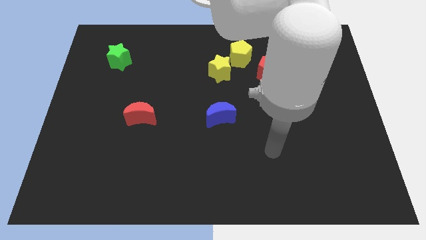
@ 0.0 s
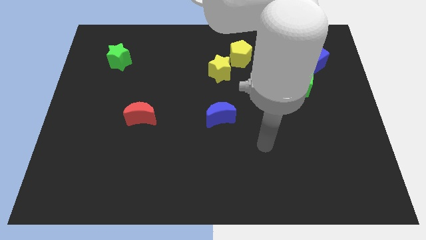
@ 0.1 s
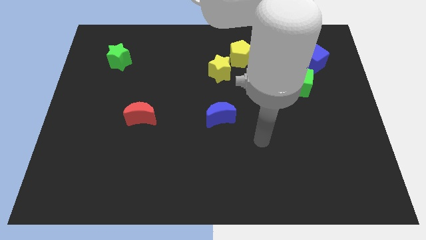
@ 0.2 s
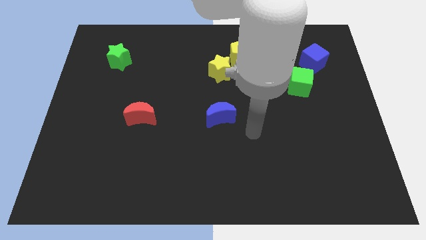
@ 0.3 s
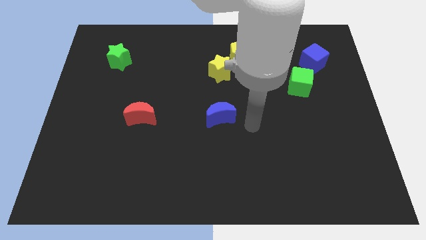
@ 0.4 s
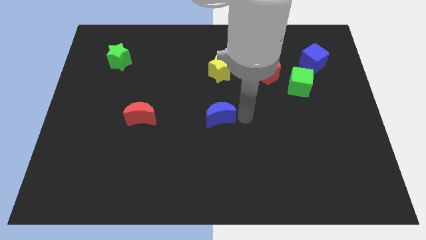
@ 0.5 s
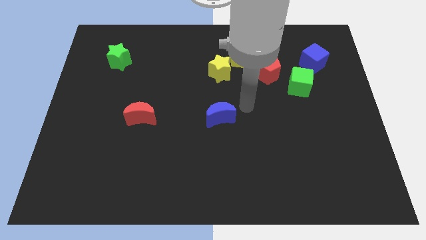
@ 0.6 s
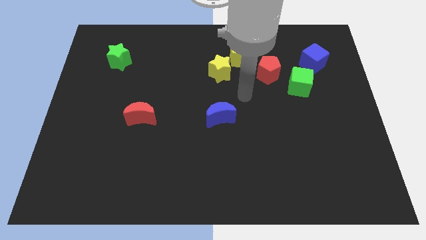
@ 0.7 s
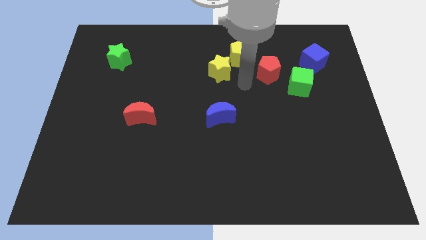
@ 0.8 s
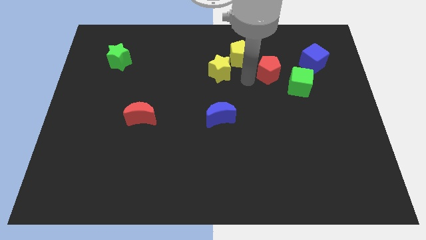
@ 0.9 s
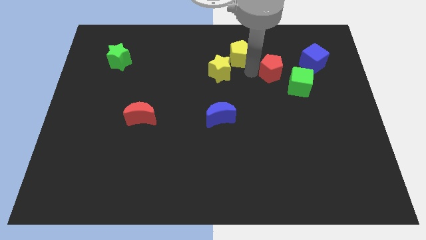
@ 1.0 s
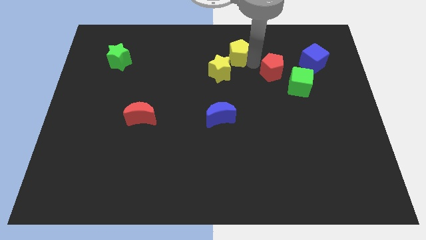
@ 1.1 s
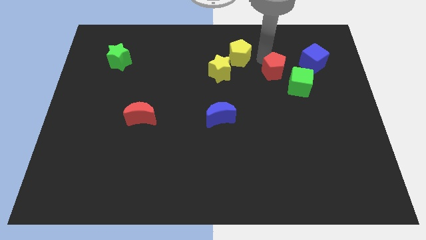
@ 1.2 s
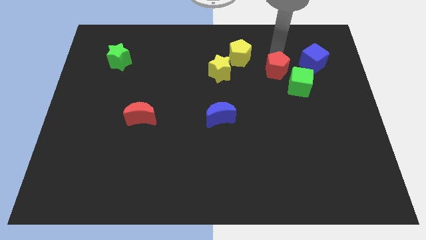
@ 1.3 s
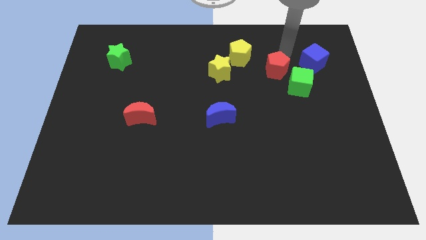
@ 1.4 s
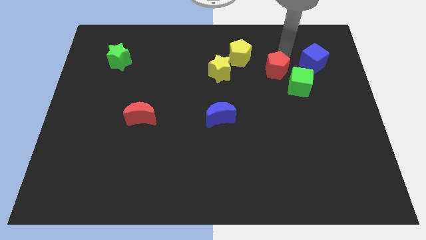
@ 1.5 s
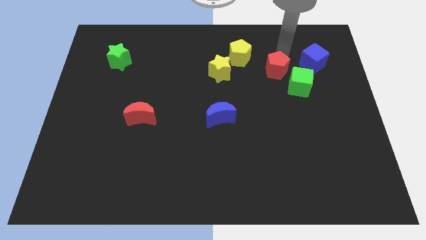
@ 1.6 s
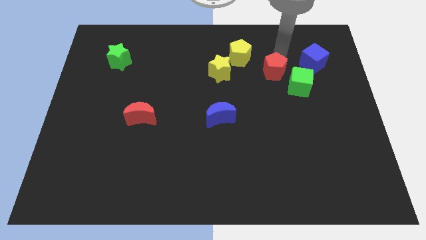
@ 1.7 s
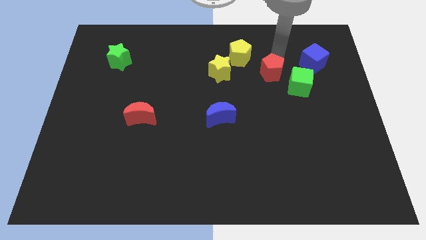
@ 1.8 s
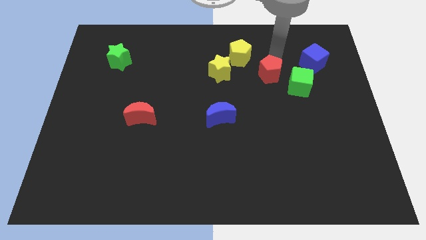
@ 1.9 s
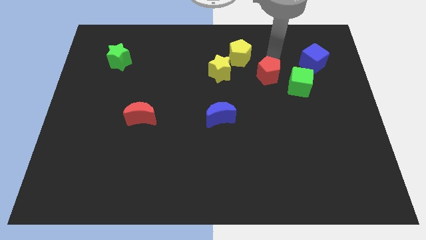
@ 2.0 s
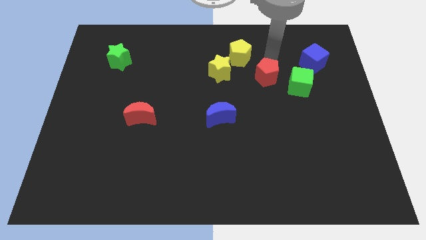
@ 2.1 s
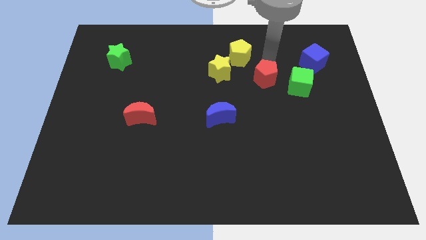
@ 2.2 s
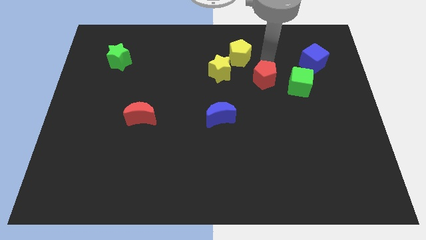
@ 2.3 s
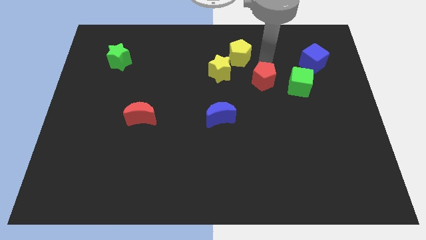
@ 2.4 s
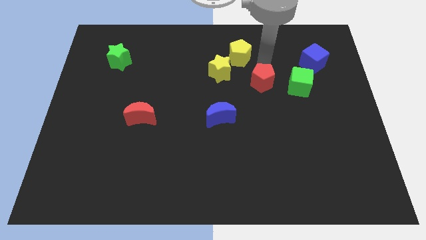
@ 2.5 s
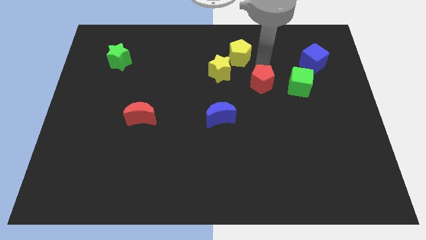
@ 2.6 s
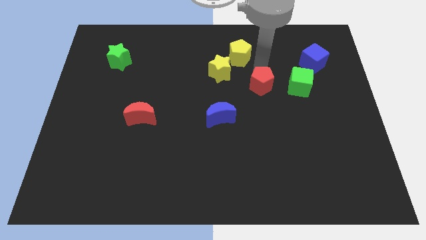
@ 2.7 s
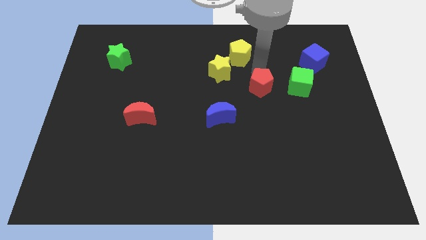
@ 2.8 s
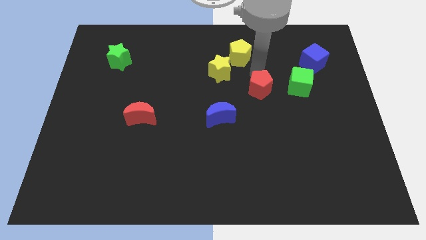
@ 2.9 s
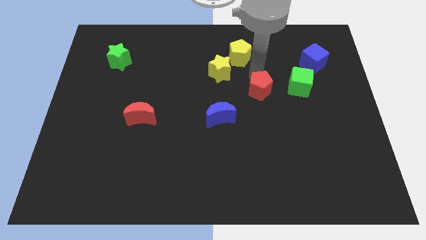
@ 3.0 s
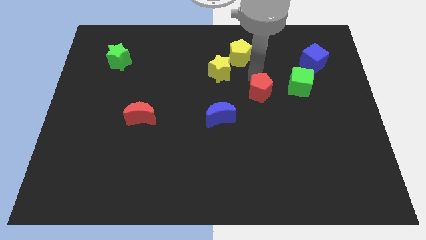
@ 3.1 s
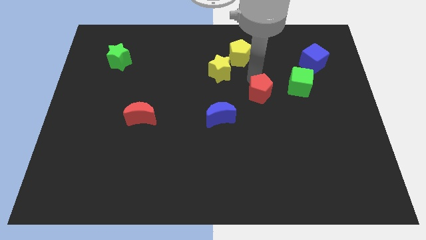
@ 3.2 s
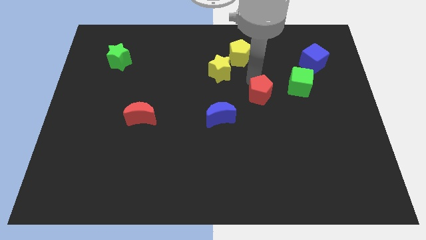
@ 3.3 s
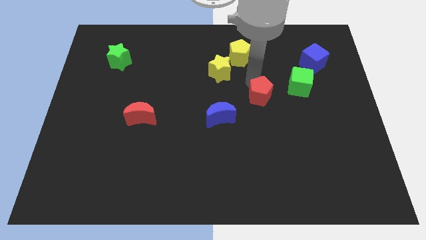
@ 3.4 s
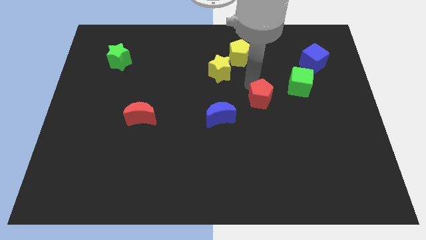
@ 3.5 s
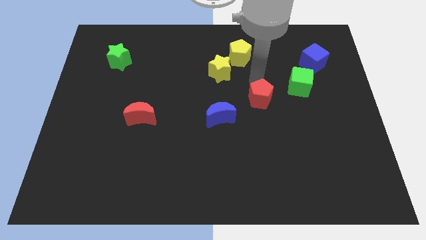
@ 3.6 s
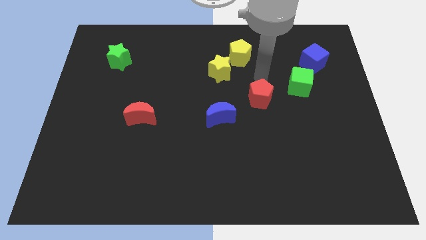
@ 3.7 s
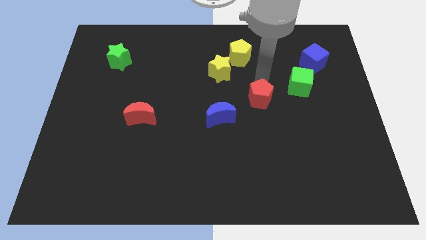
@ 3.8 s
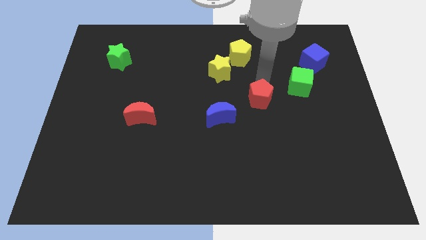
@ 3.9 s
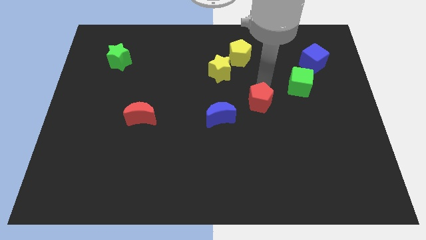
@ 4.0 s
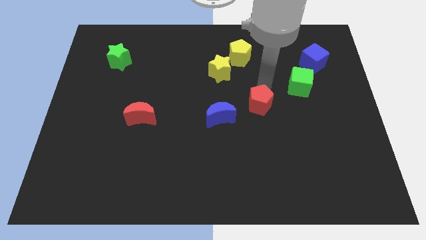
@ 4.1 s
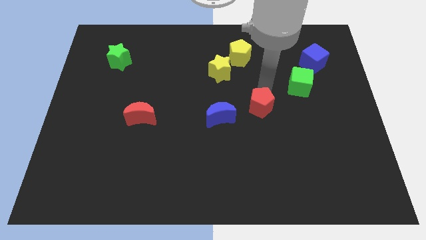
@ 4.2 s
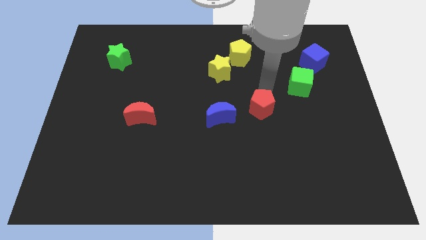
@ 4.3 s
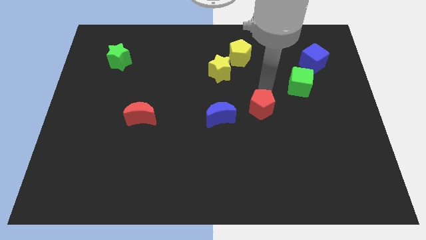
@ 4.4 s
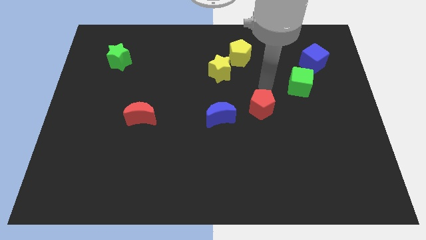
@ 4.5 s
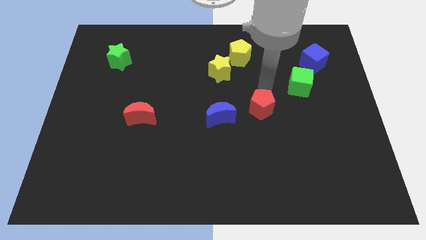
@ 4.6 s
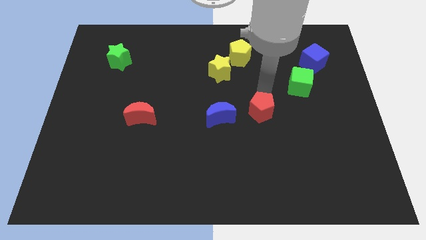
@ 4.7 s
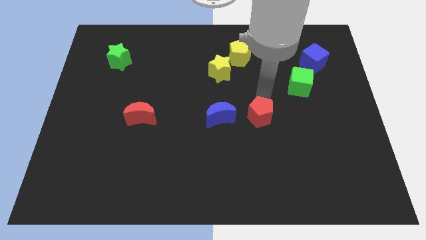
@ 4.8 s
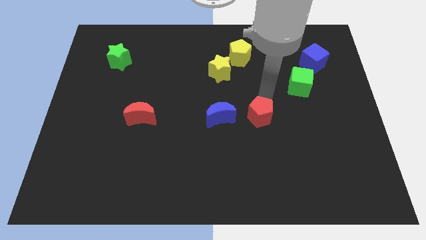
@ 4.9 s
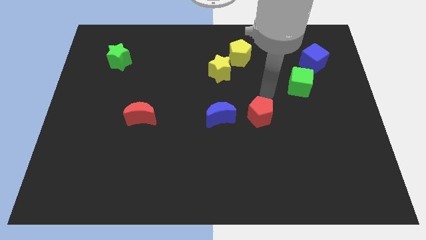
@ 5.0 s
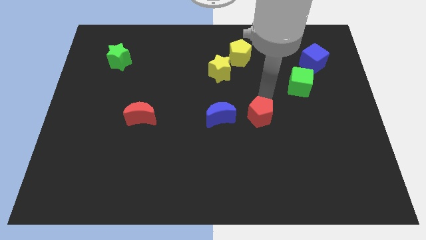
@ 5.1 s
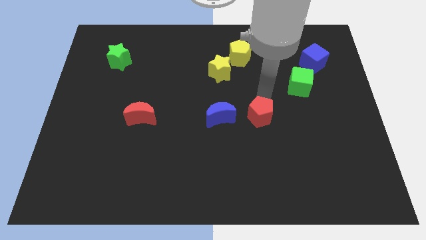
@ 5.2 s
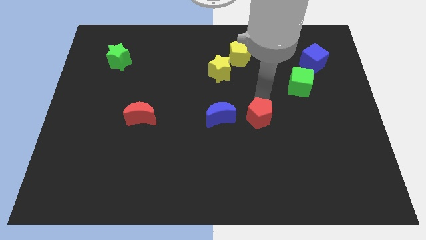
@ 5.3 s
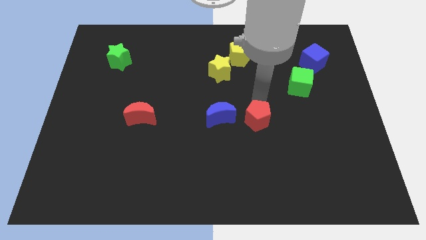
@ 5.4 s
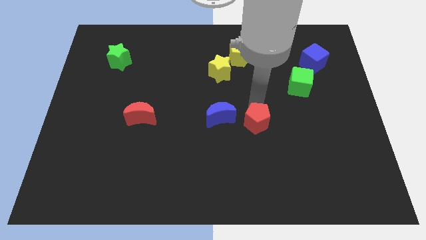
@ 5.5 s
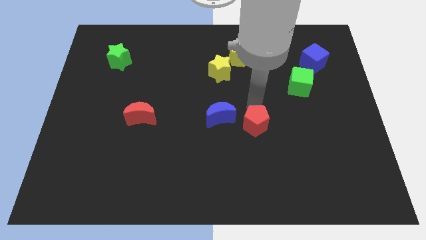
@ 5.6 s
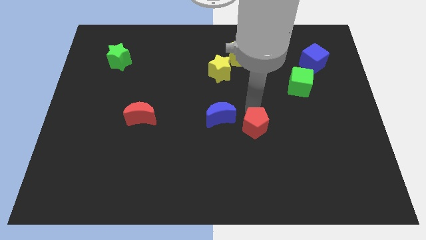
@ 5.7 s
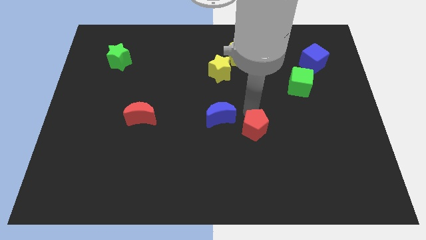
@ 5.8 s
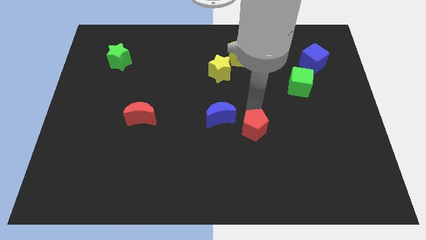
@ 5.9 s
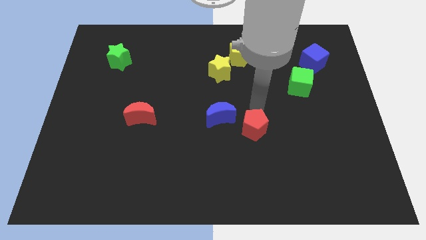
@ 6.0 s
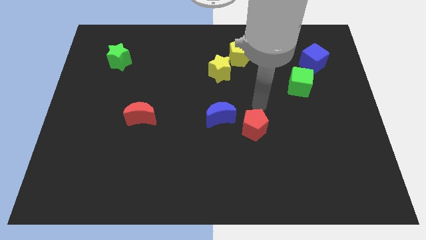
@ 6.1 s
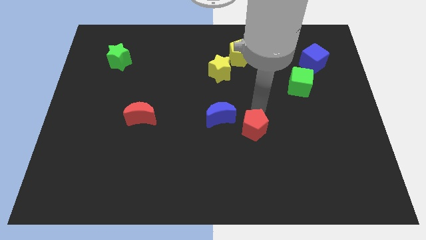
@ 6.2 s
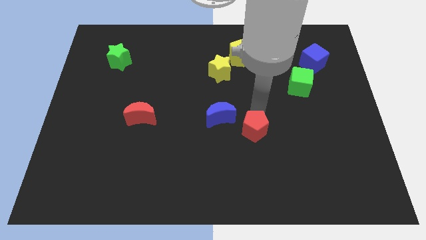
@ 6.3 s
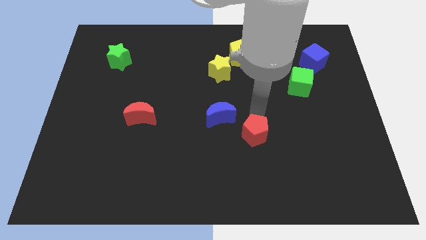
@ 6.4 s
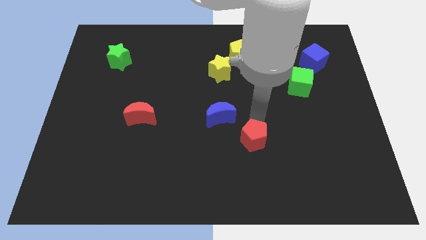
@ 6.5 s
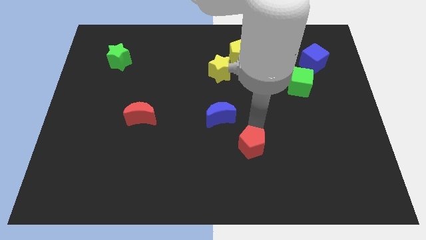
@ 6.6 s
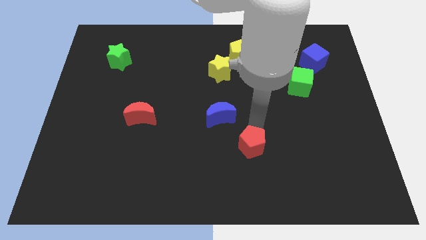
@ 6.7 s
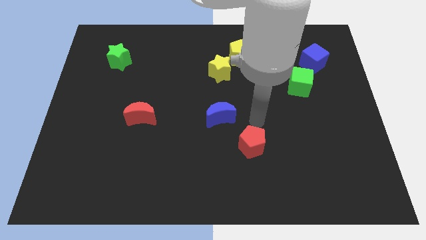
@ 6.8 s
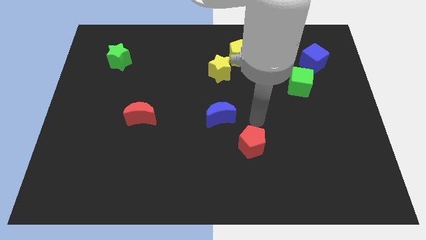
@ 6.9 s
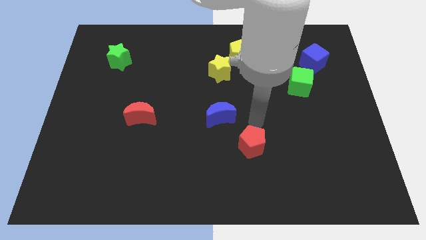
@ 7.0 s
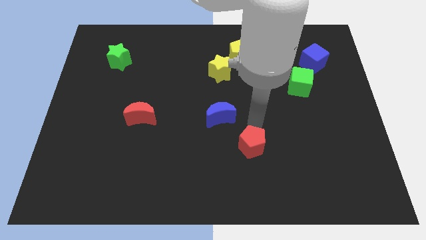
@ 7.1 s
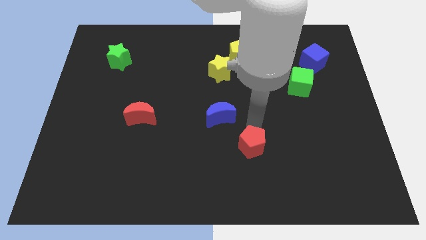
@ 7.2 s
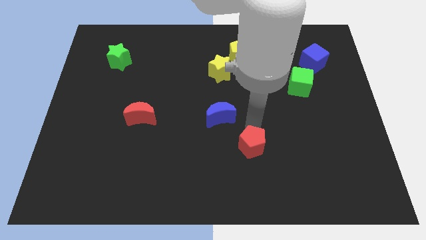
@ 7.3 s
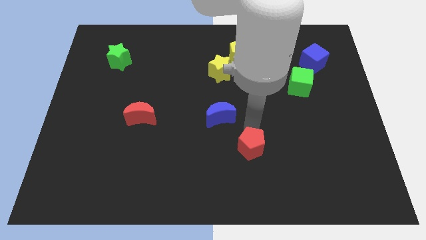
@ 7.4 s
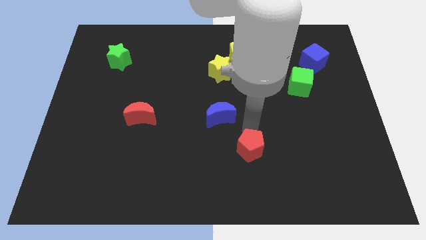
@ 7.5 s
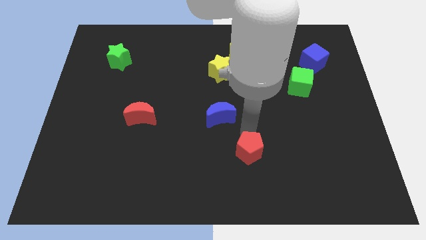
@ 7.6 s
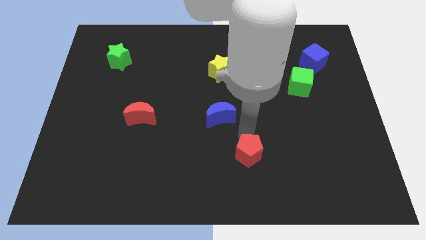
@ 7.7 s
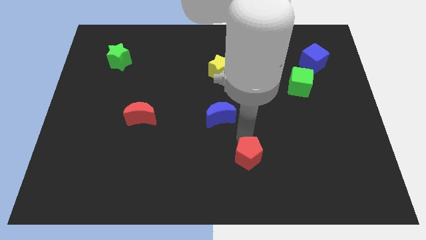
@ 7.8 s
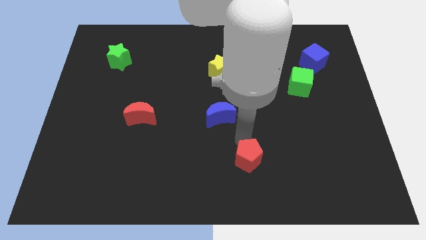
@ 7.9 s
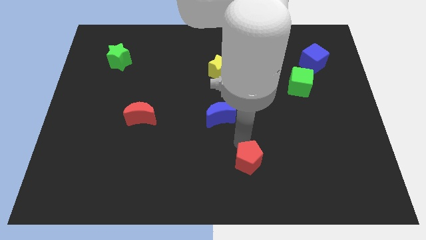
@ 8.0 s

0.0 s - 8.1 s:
move the red pentagon to the bottom
